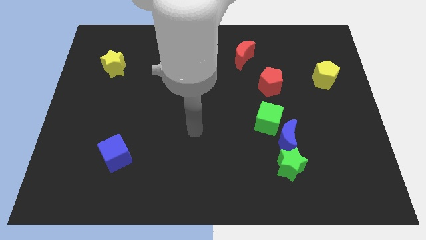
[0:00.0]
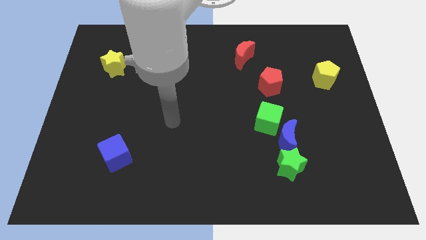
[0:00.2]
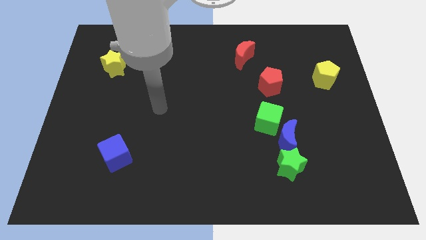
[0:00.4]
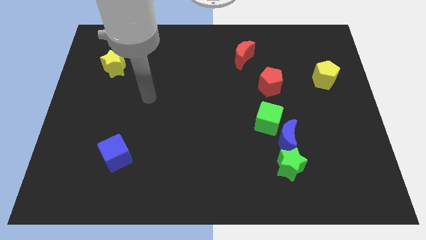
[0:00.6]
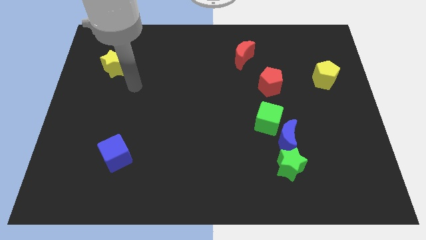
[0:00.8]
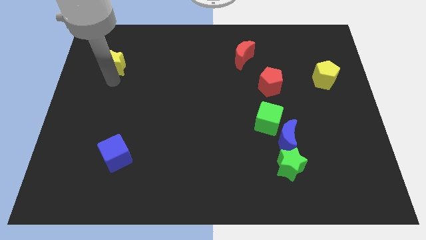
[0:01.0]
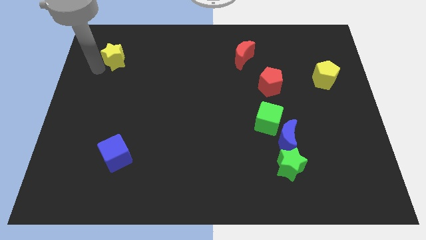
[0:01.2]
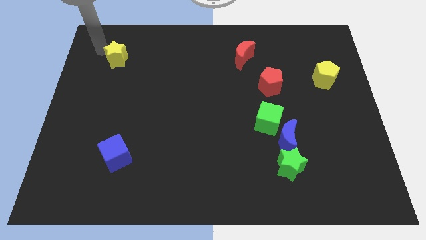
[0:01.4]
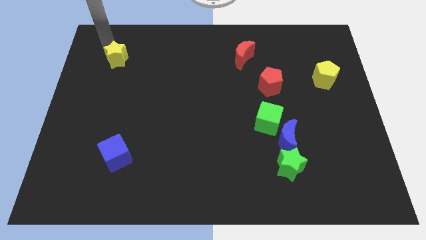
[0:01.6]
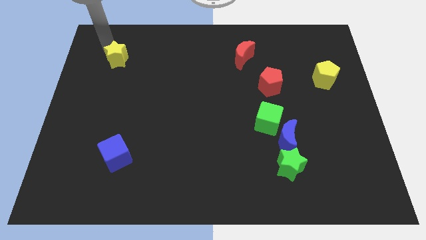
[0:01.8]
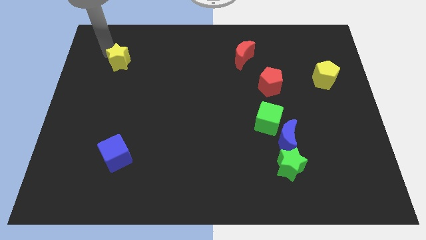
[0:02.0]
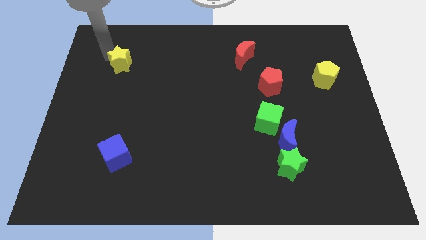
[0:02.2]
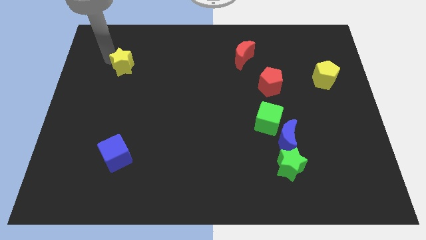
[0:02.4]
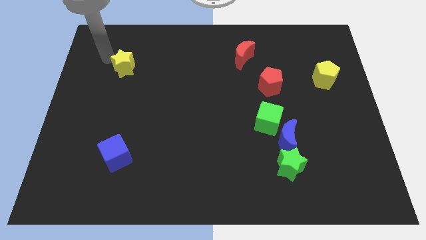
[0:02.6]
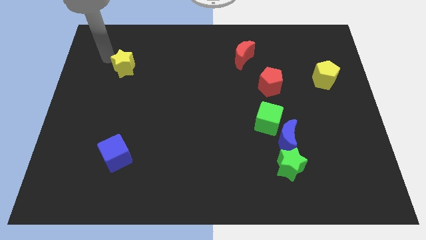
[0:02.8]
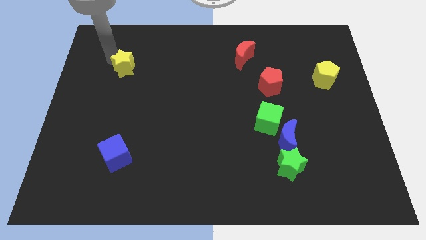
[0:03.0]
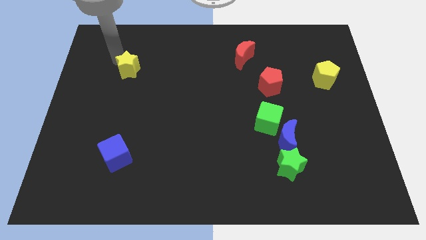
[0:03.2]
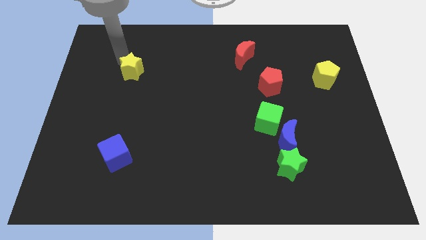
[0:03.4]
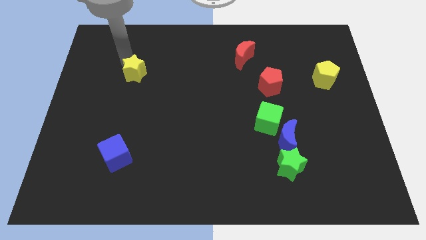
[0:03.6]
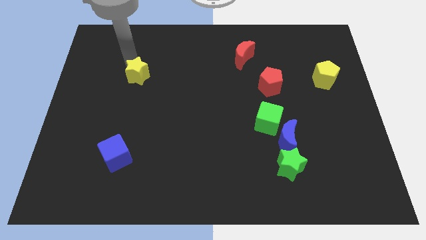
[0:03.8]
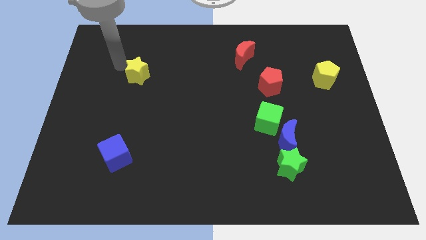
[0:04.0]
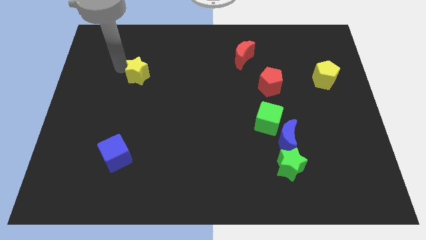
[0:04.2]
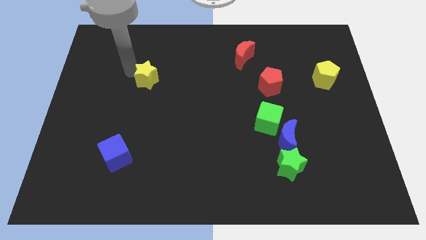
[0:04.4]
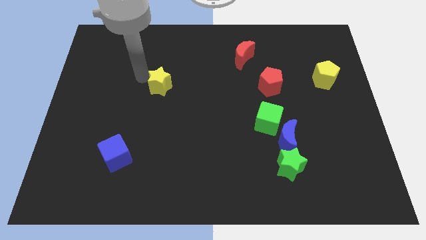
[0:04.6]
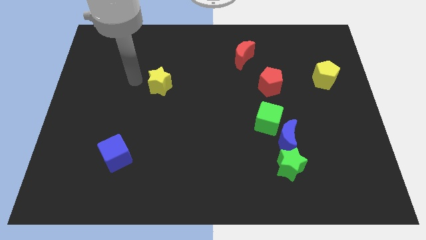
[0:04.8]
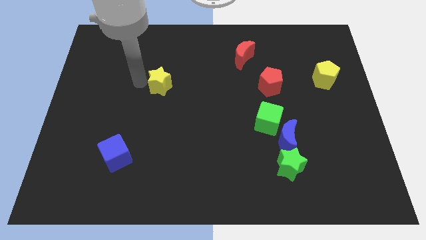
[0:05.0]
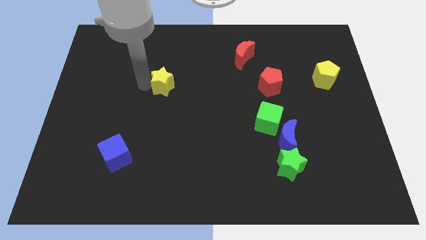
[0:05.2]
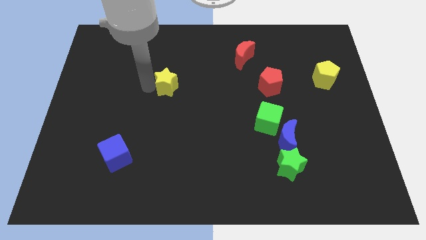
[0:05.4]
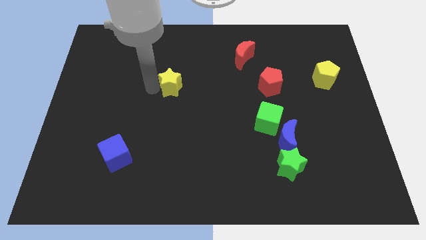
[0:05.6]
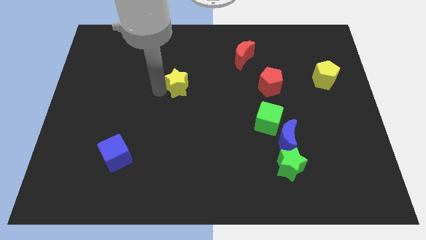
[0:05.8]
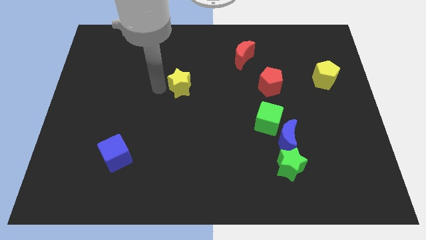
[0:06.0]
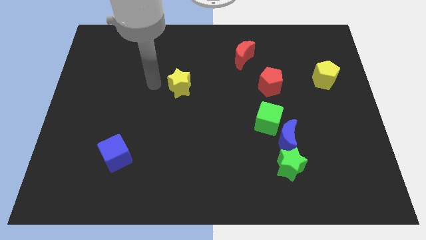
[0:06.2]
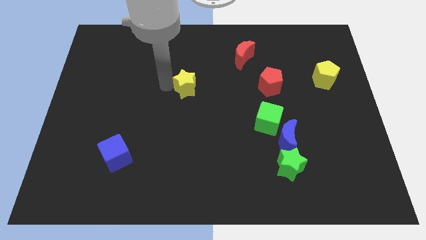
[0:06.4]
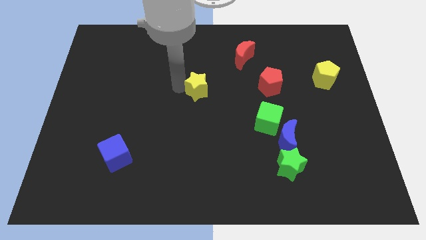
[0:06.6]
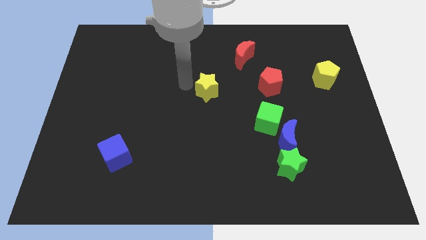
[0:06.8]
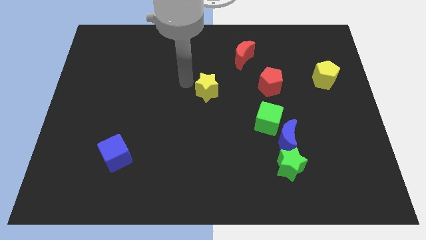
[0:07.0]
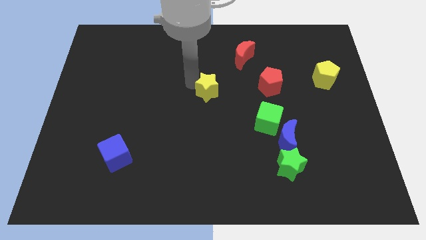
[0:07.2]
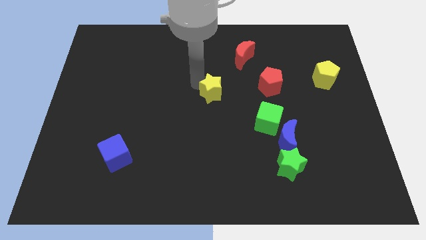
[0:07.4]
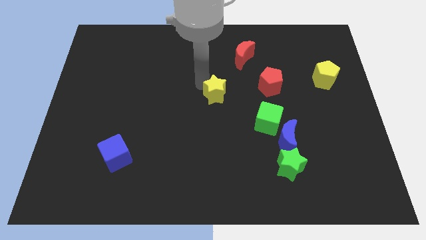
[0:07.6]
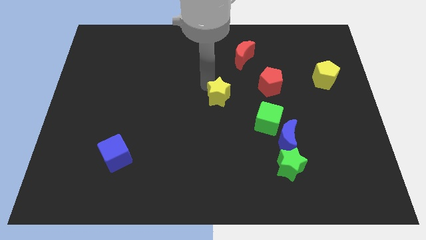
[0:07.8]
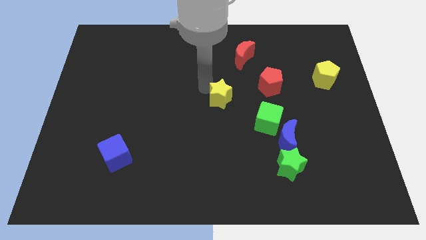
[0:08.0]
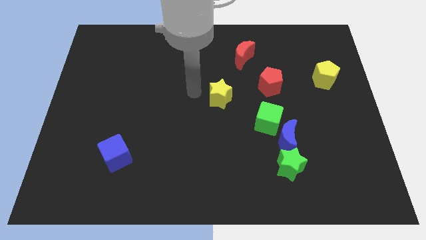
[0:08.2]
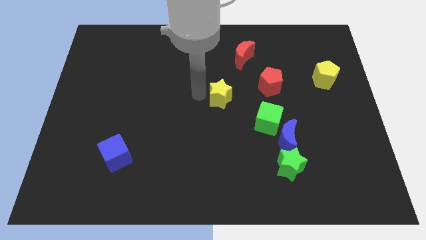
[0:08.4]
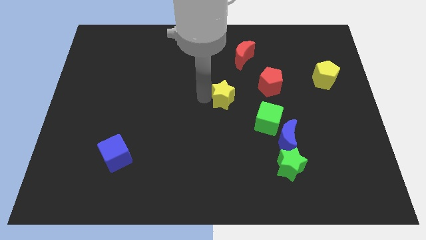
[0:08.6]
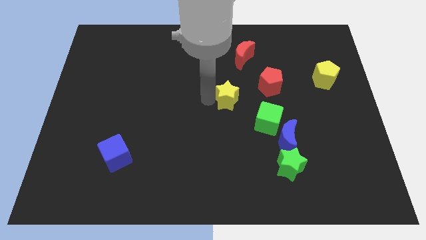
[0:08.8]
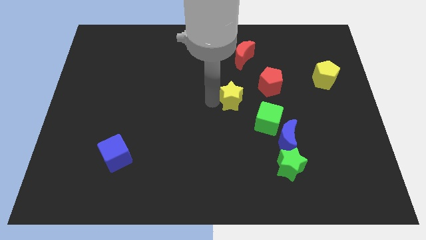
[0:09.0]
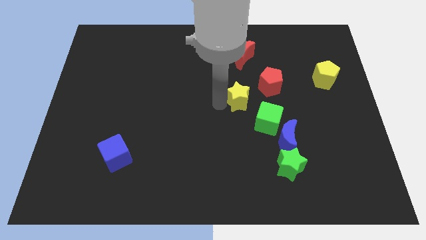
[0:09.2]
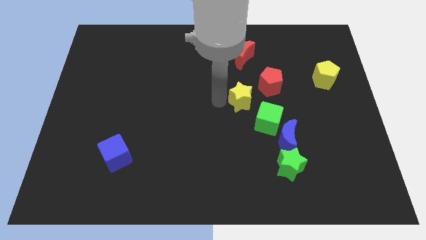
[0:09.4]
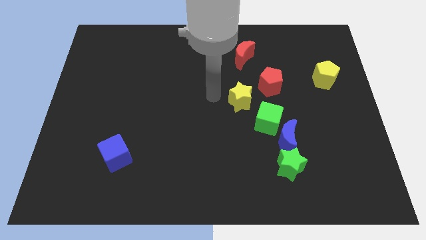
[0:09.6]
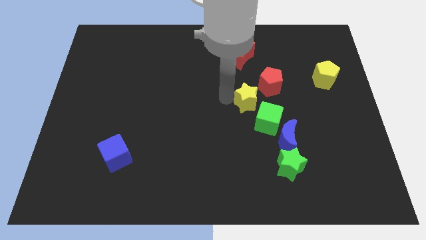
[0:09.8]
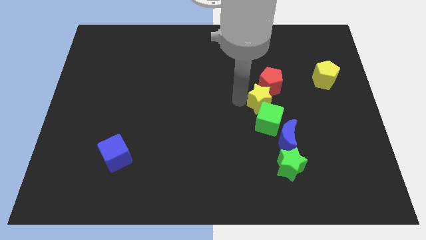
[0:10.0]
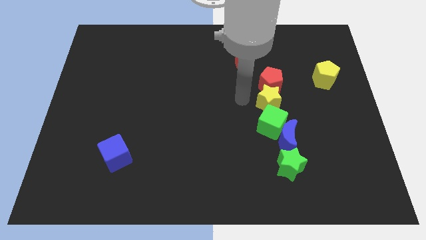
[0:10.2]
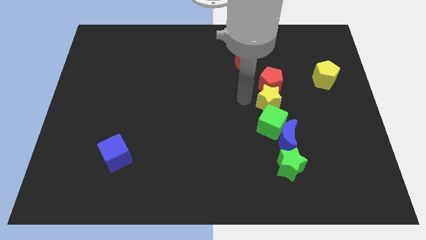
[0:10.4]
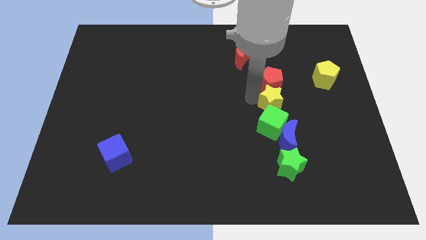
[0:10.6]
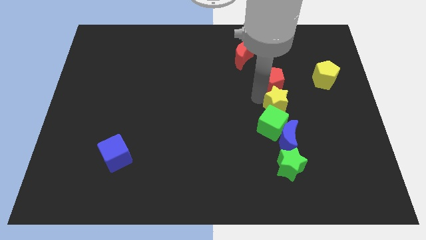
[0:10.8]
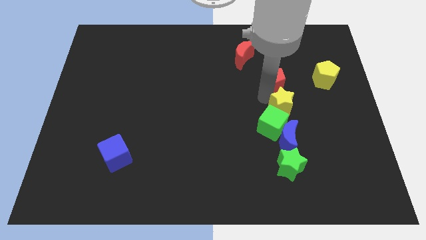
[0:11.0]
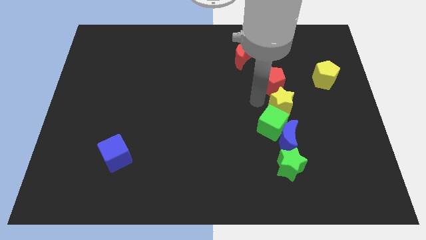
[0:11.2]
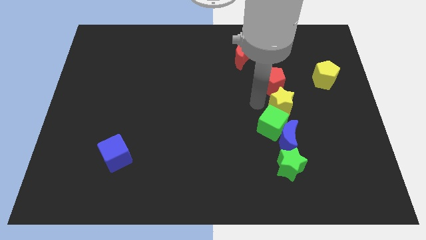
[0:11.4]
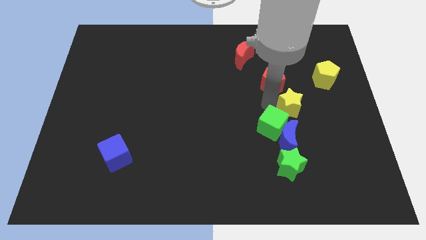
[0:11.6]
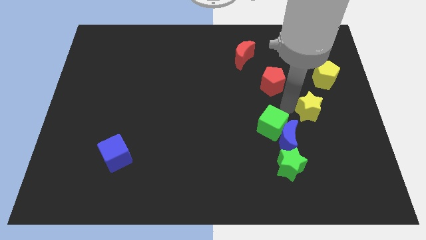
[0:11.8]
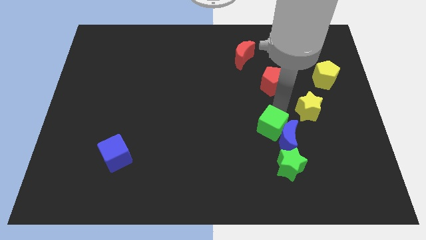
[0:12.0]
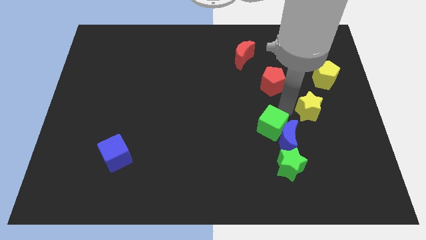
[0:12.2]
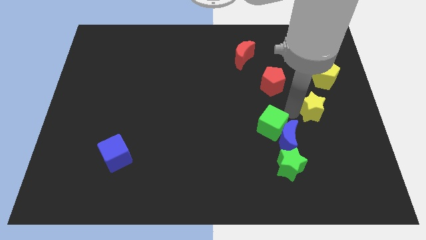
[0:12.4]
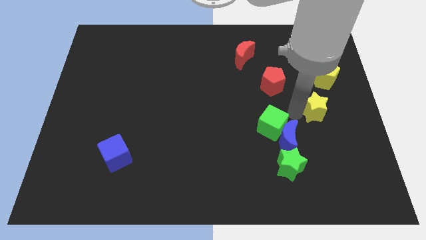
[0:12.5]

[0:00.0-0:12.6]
slide the yellow star to the bottom side of the yellow pentagon
